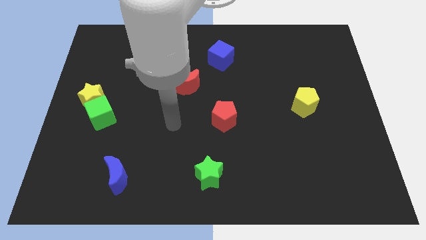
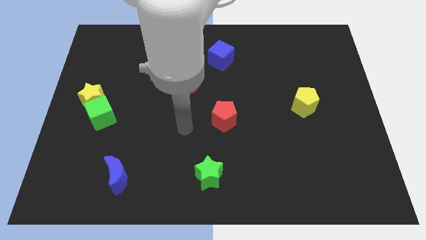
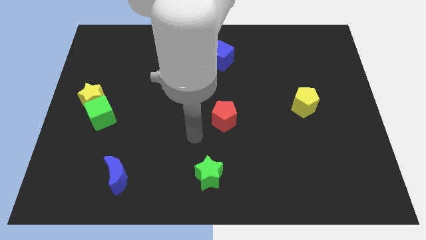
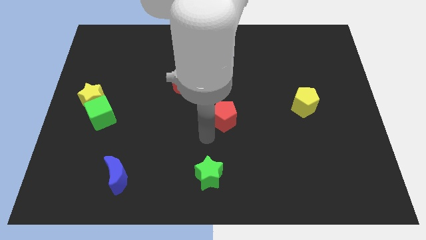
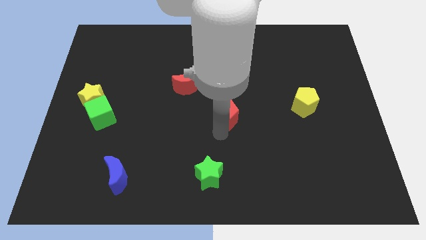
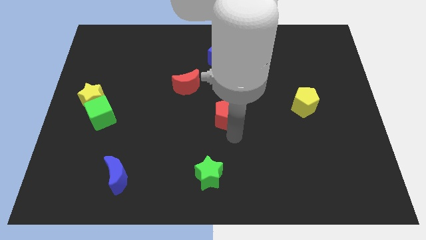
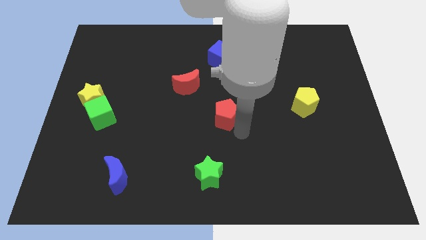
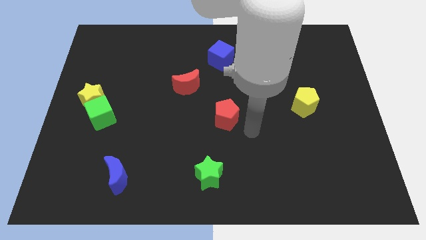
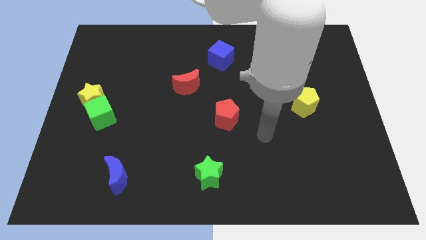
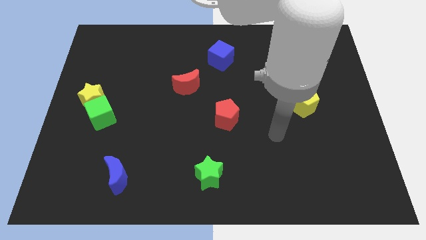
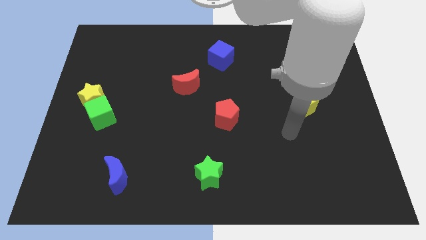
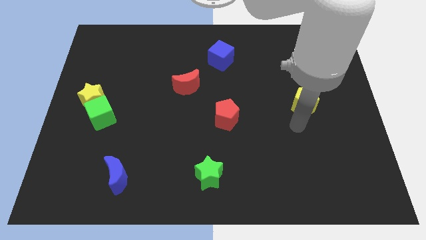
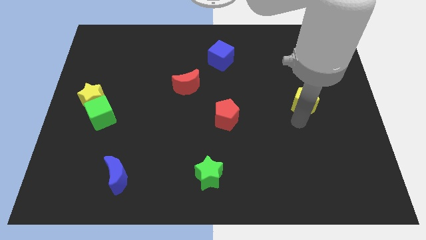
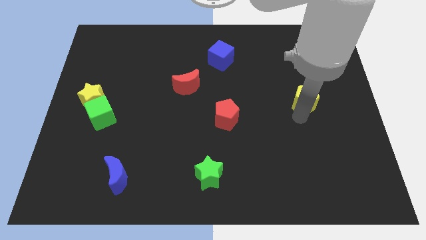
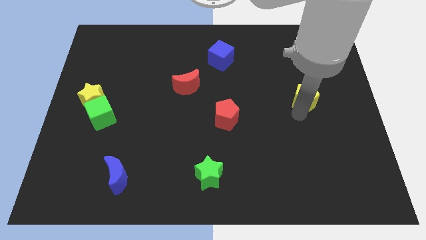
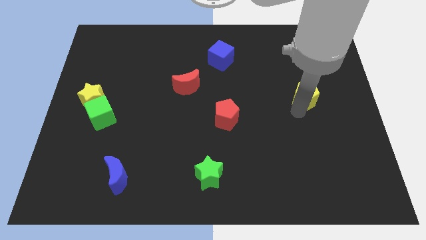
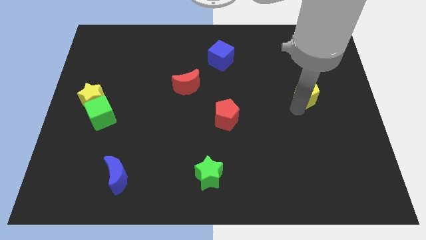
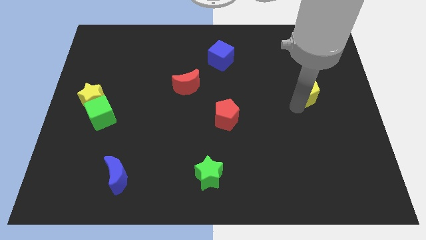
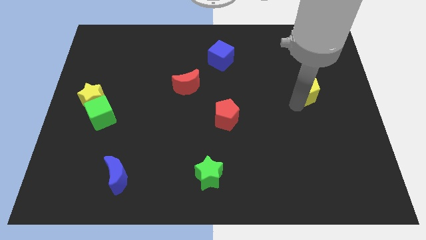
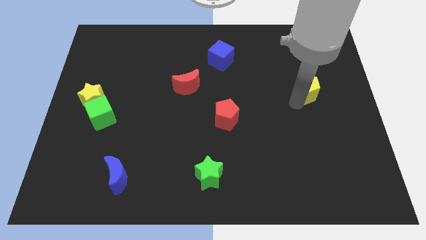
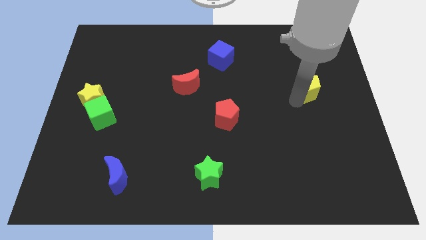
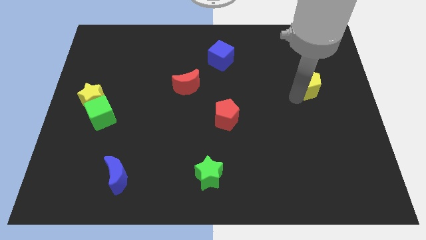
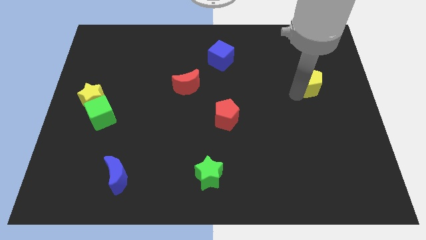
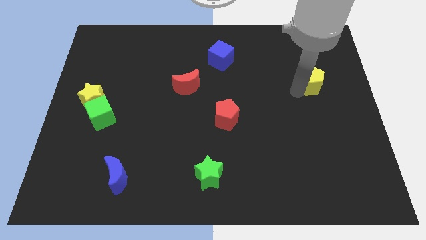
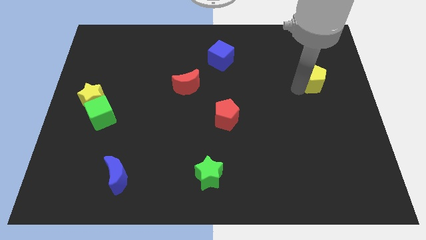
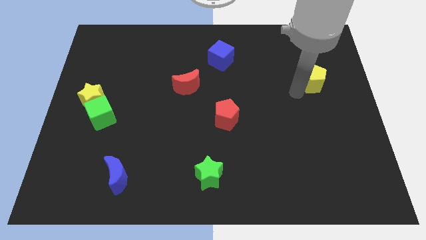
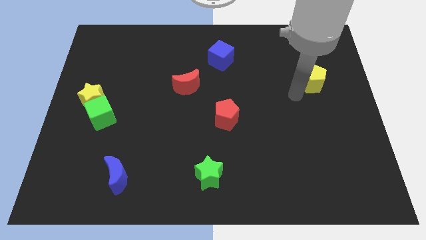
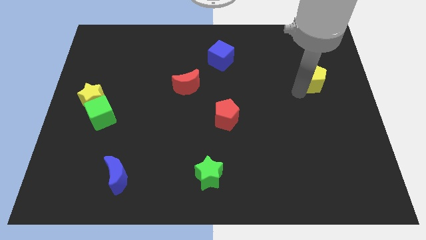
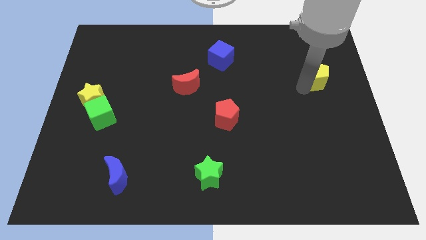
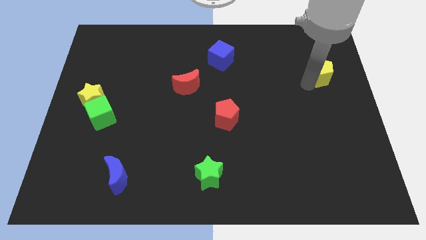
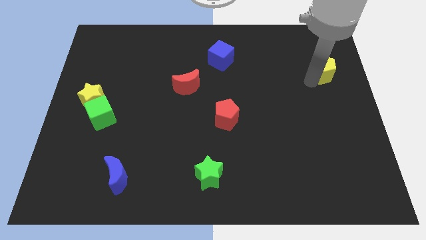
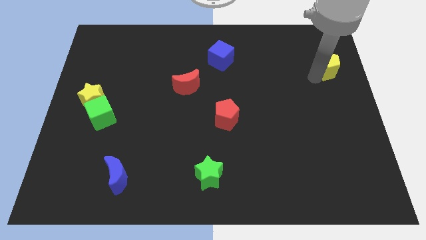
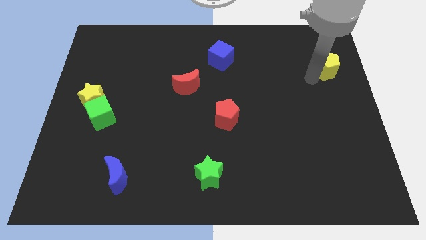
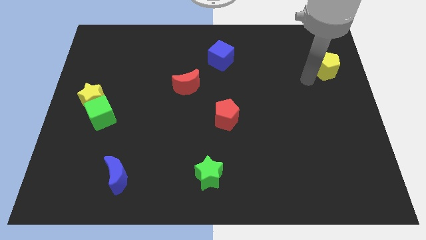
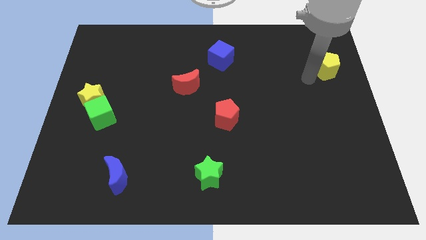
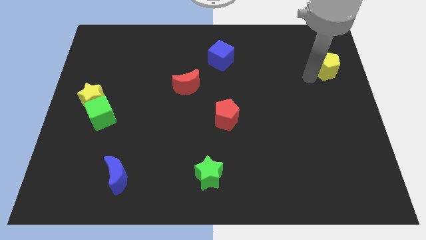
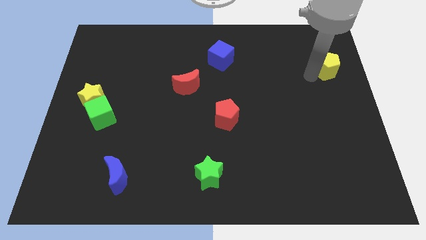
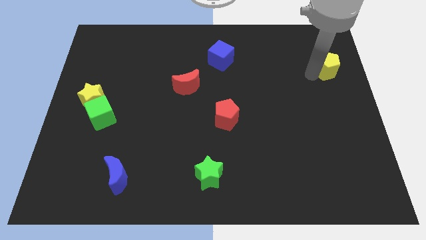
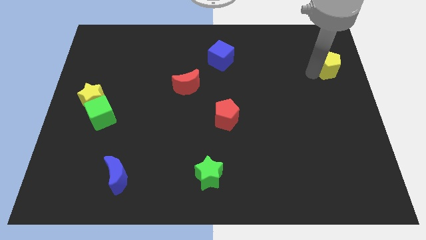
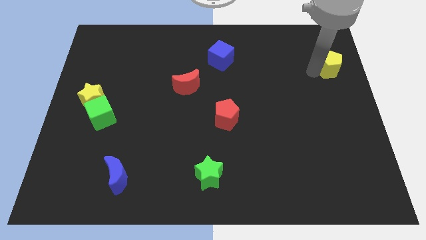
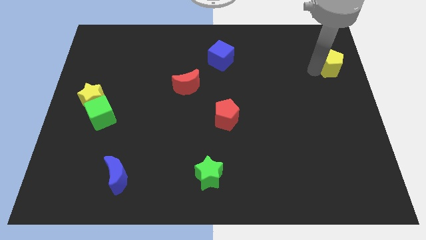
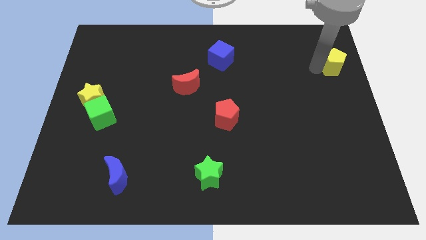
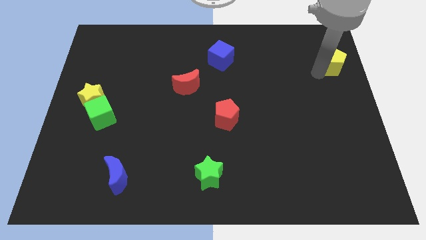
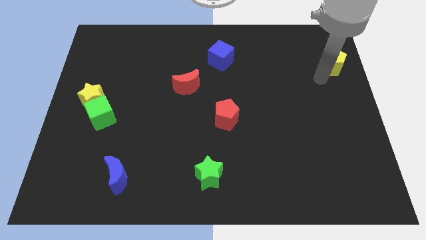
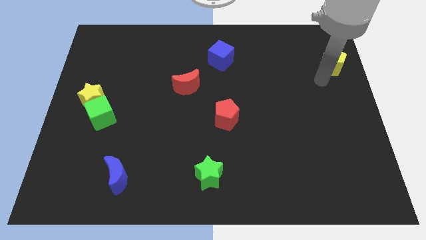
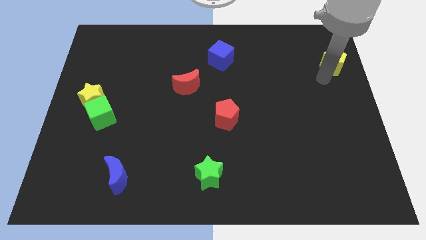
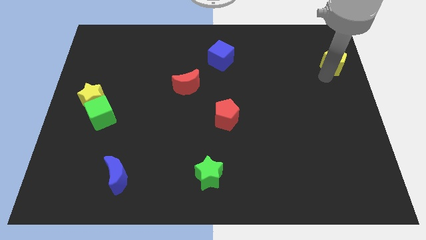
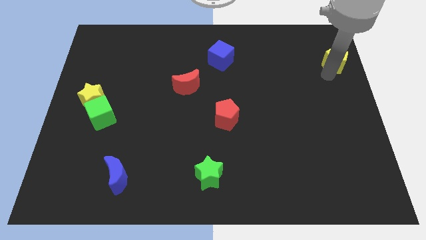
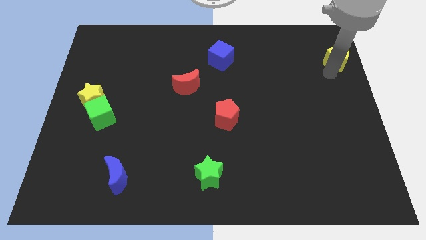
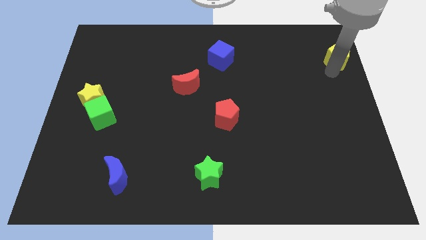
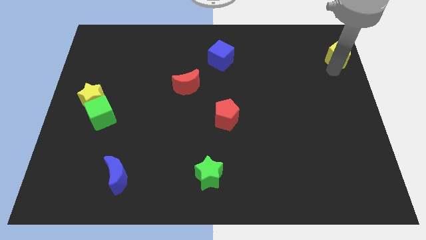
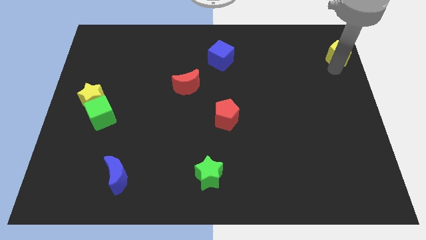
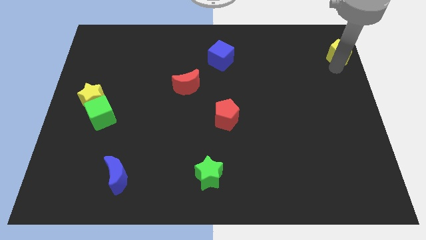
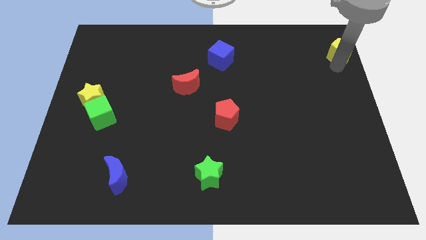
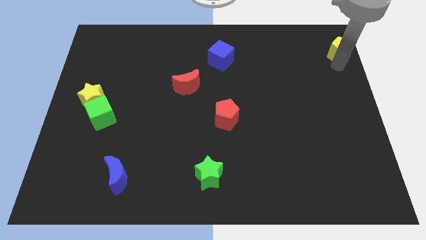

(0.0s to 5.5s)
put the yellow pentagon to the top right
